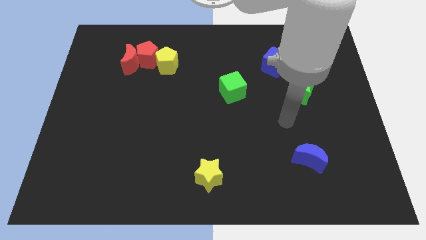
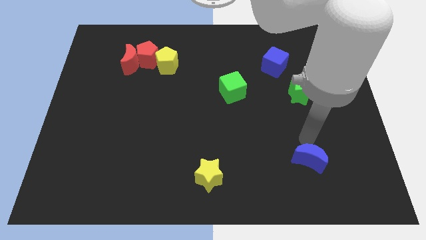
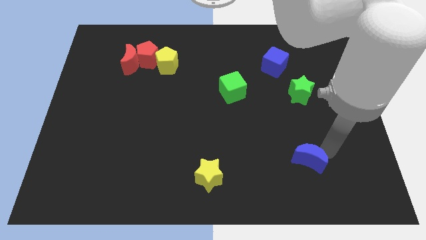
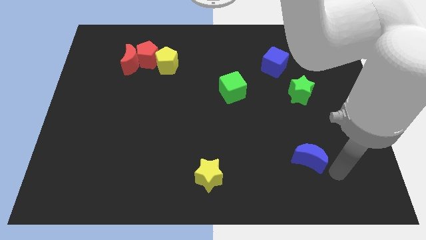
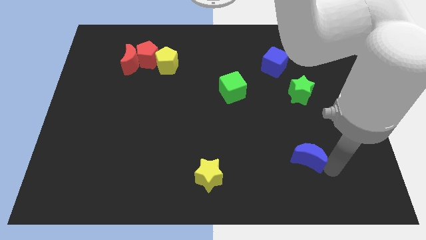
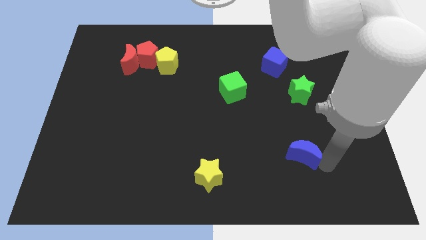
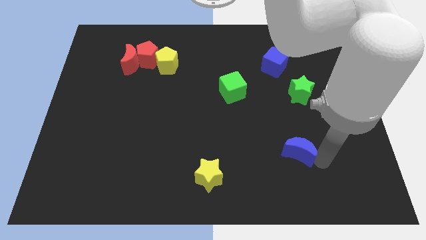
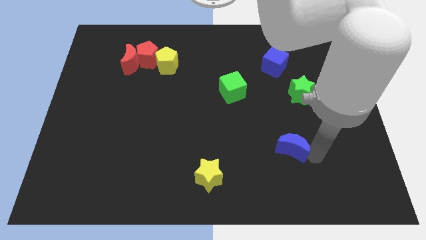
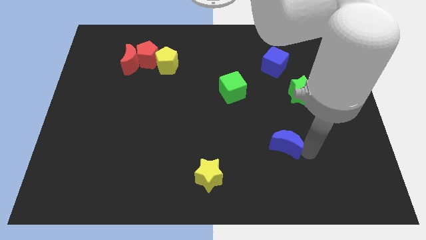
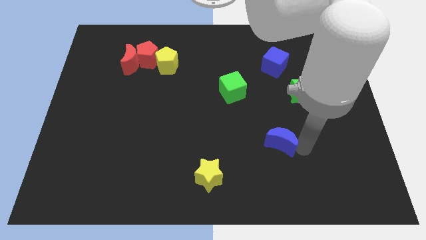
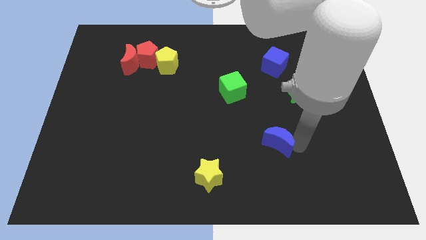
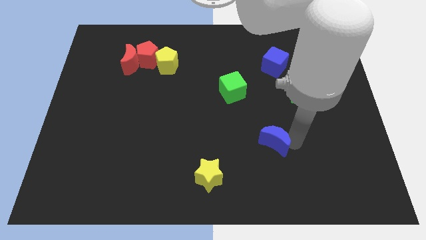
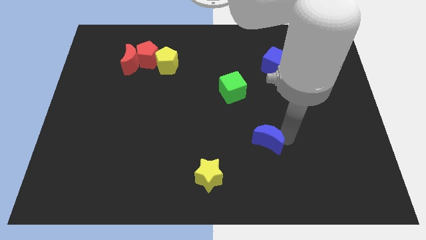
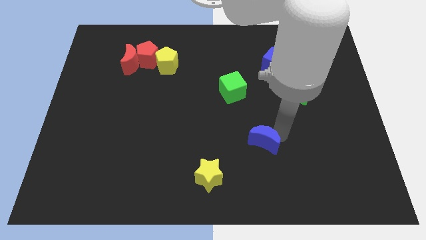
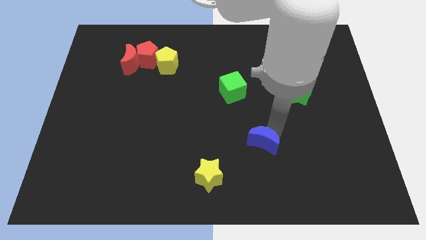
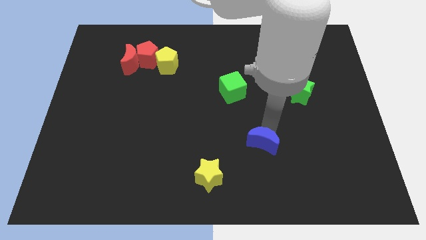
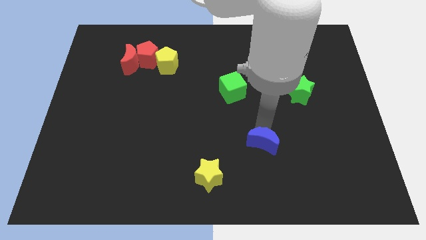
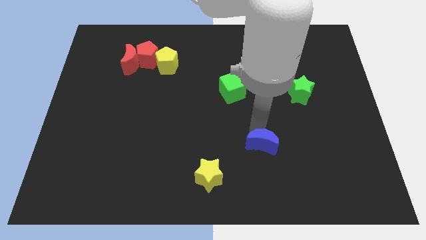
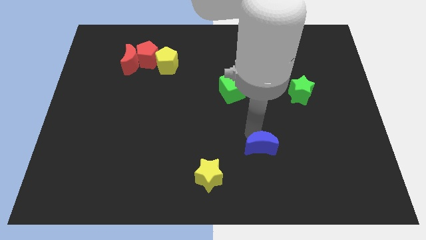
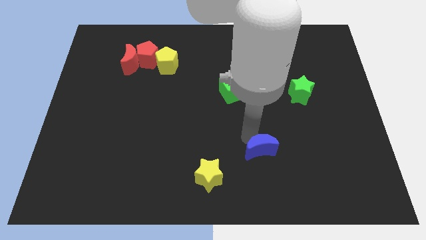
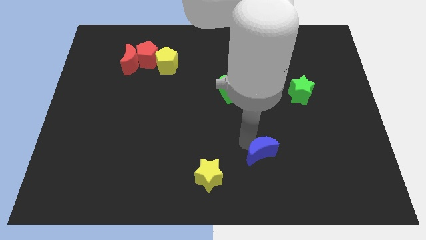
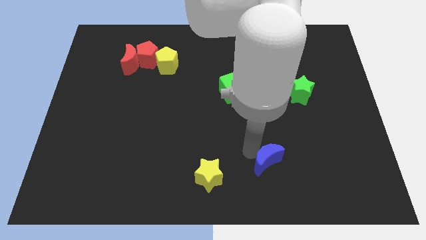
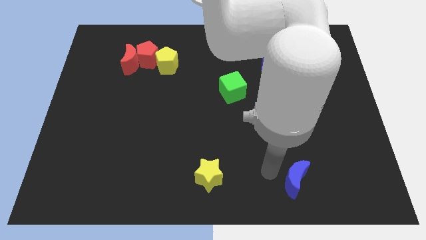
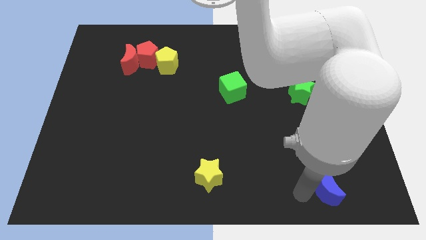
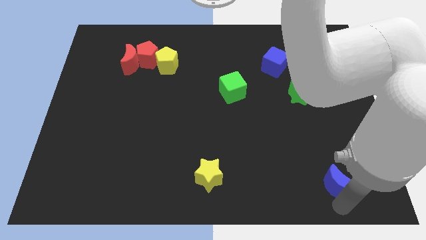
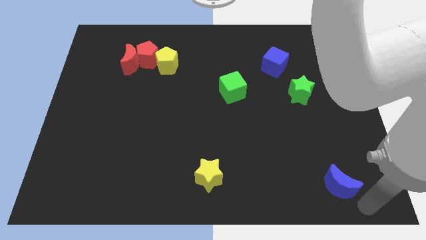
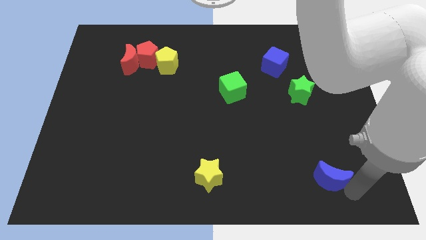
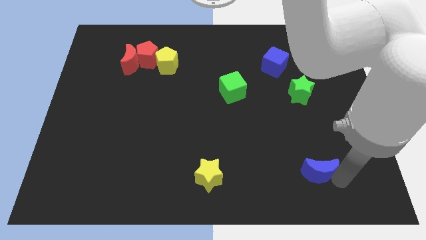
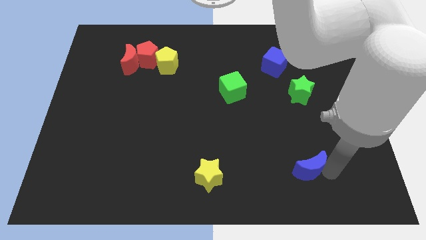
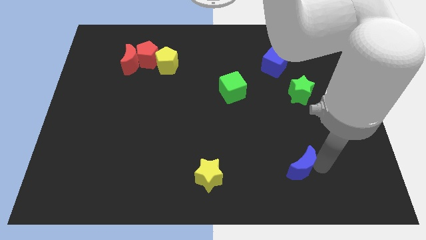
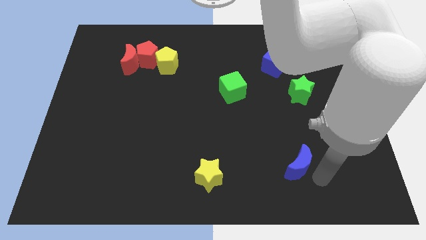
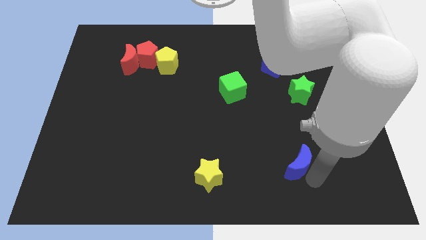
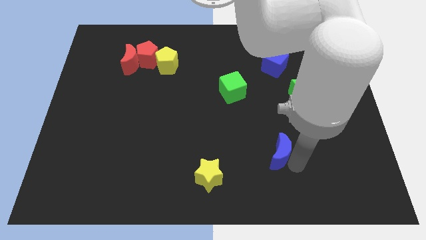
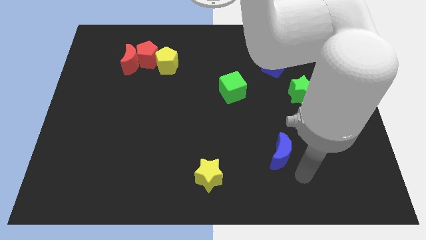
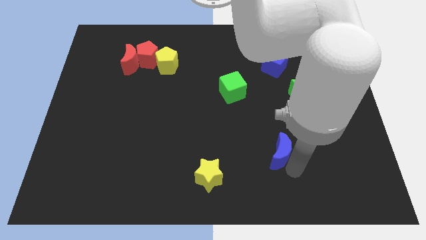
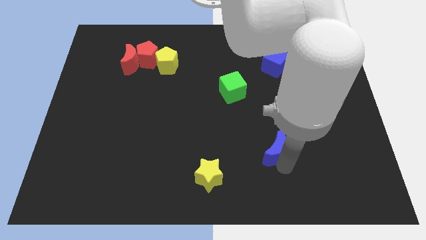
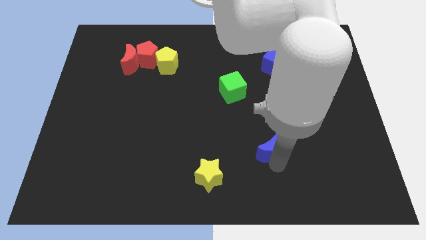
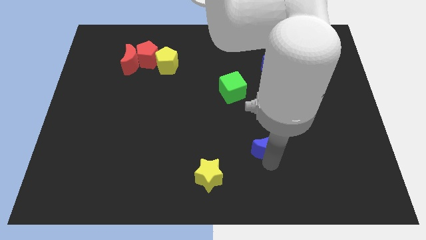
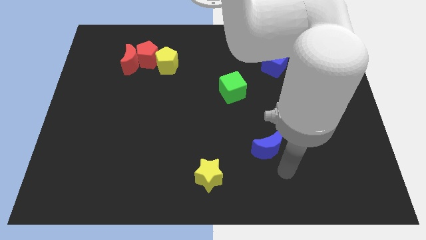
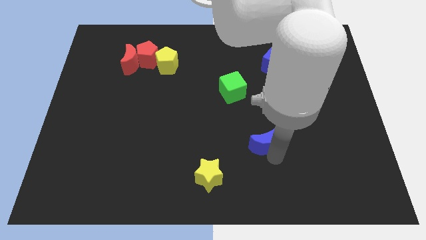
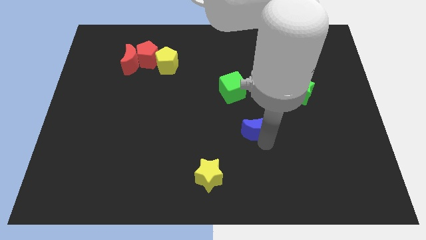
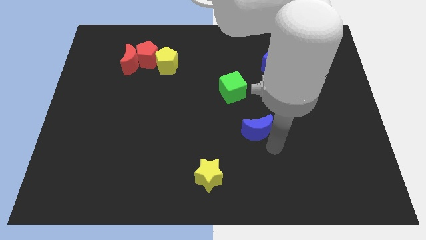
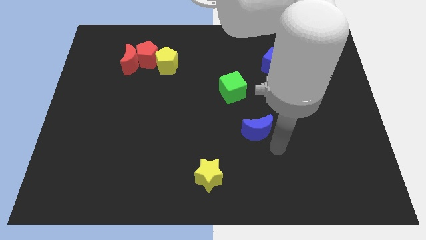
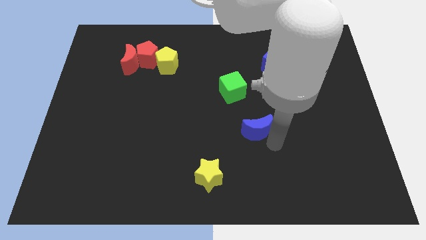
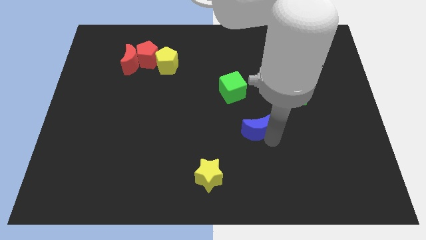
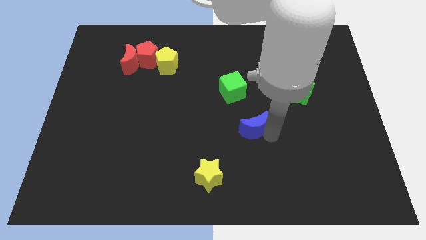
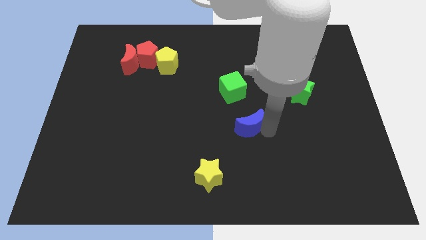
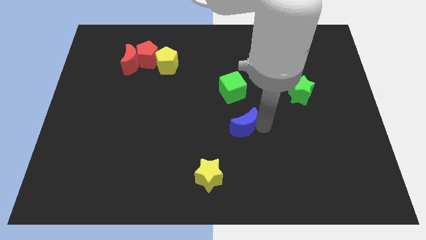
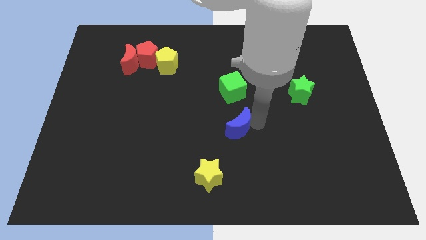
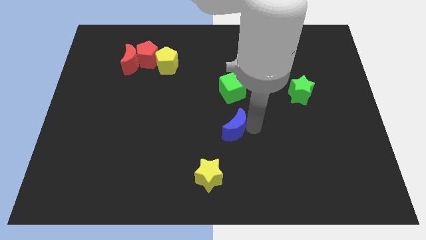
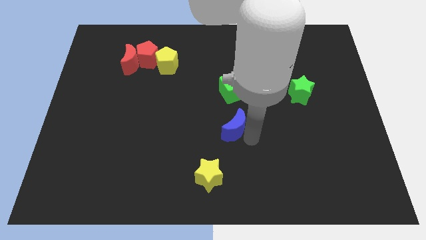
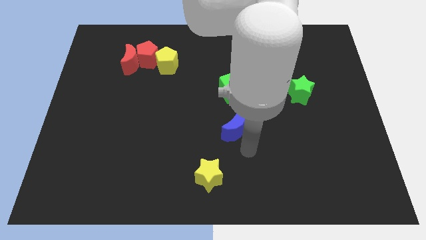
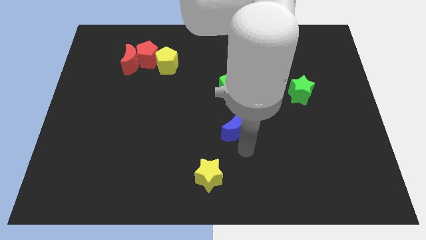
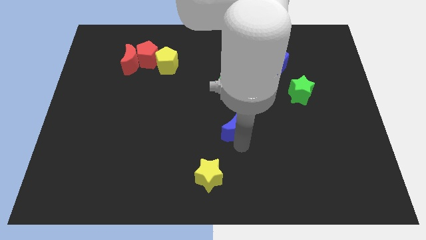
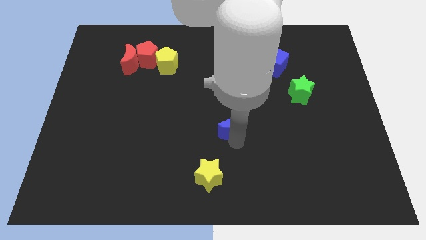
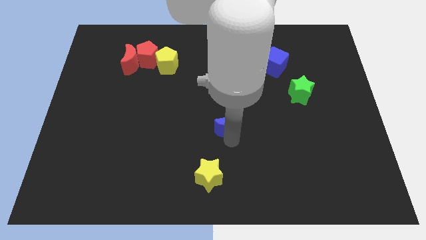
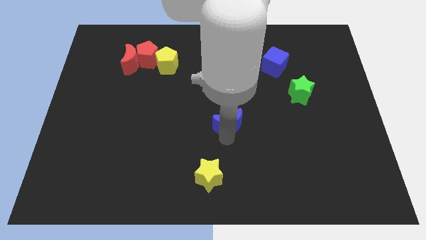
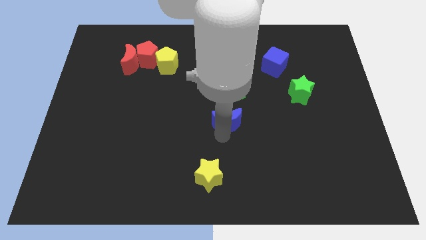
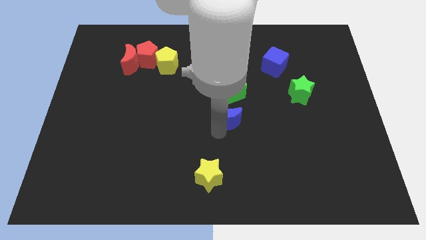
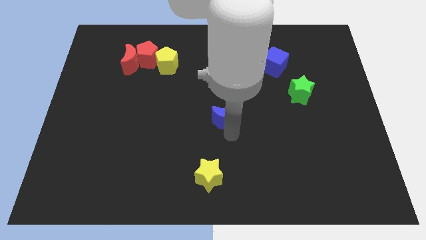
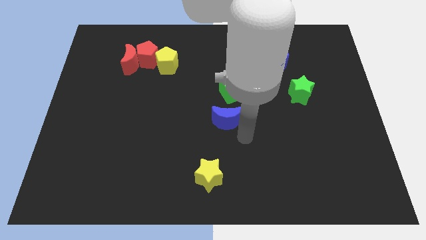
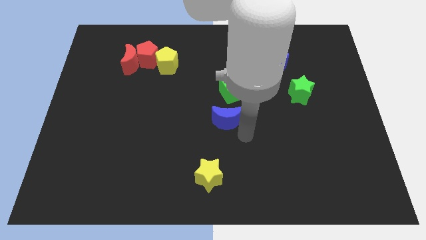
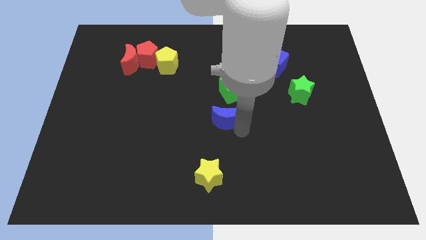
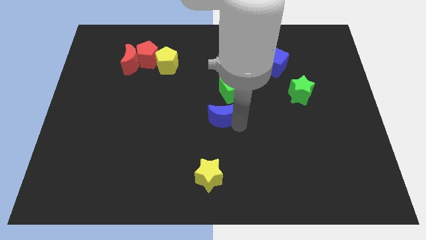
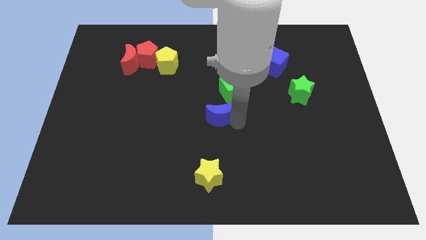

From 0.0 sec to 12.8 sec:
move the blue moon up and to the left diagonally

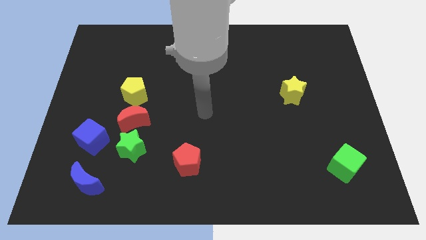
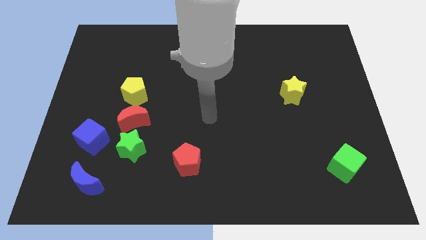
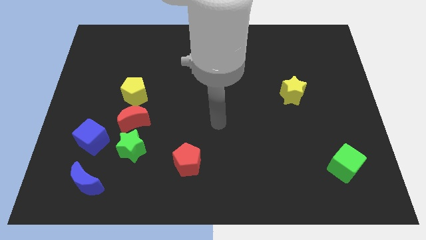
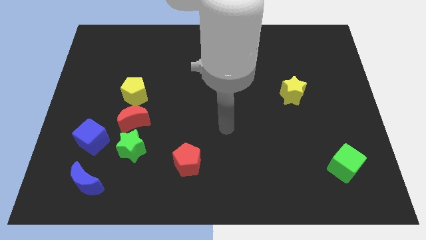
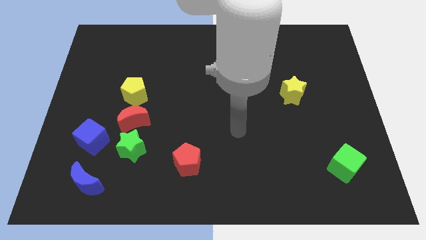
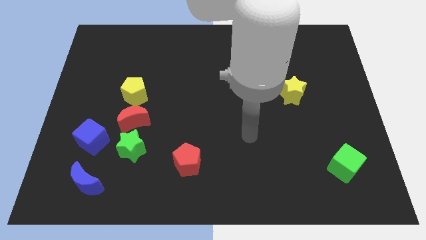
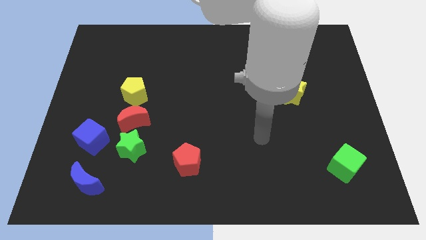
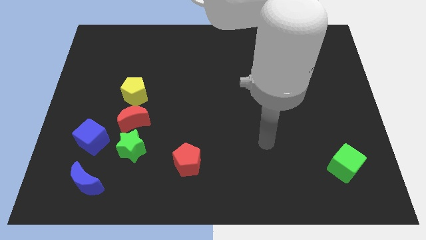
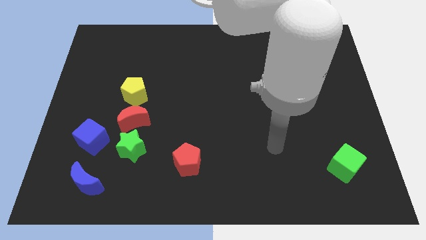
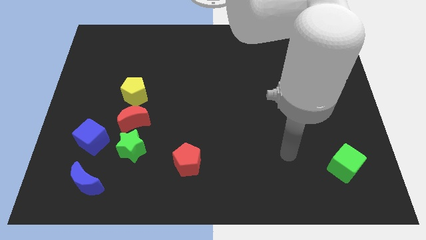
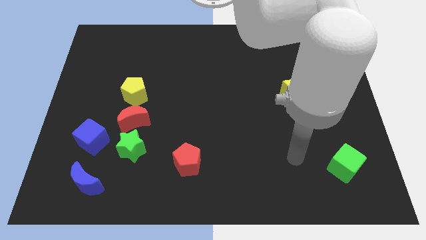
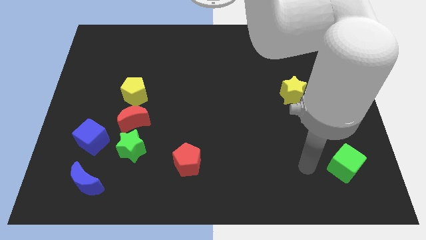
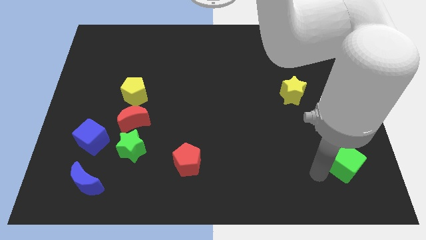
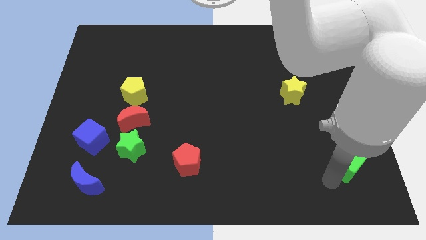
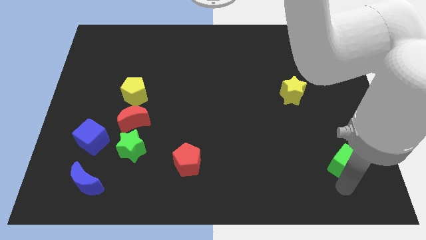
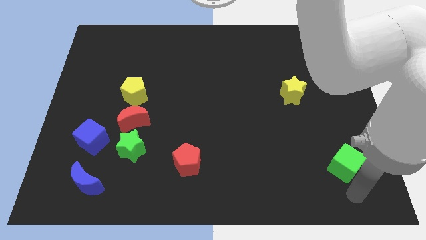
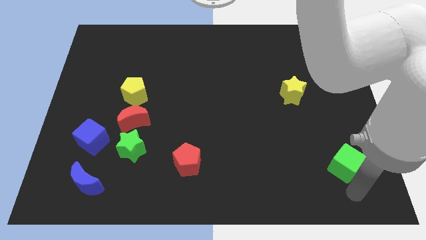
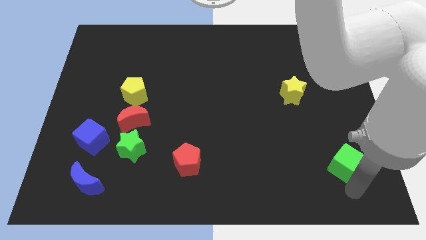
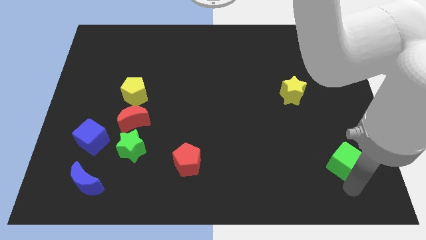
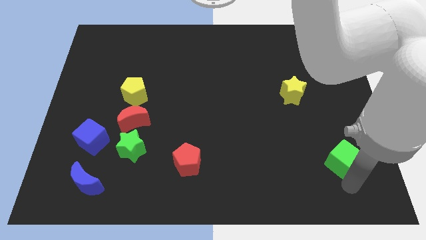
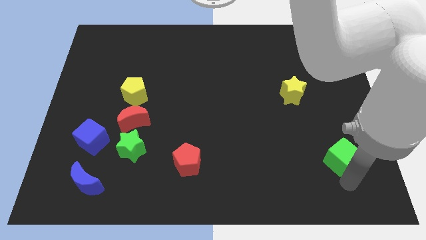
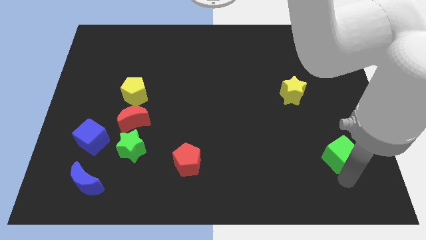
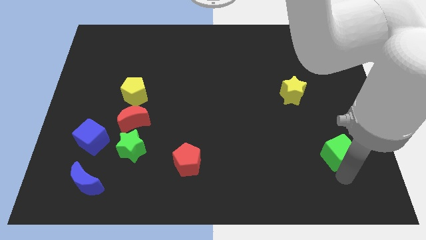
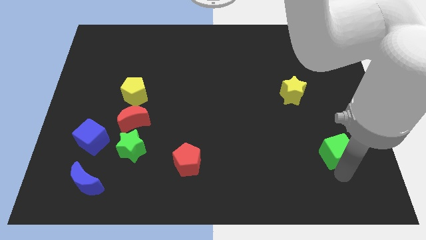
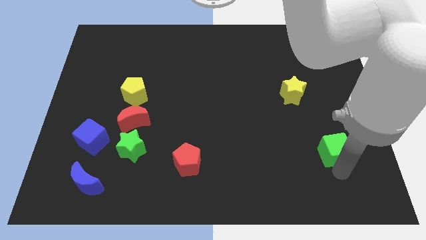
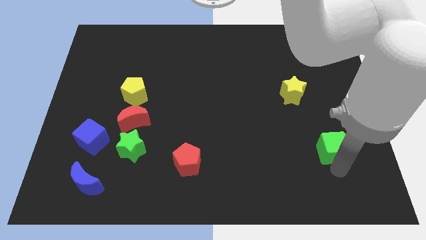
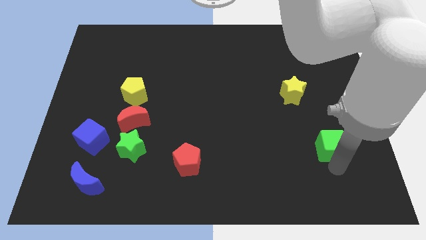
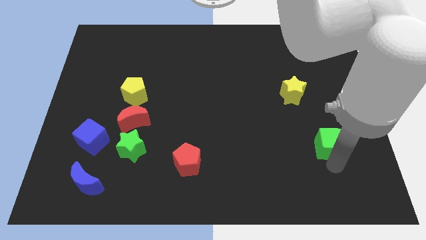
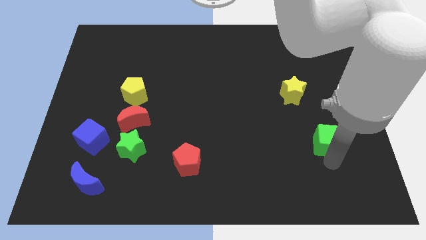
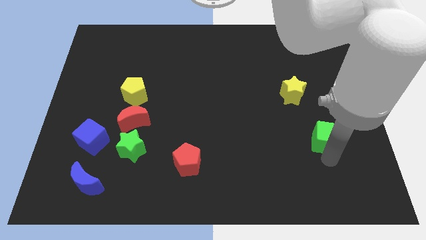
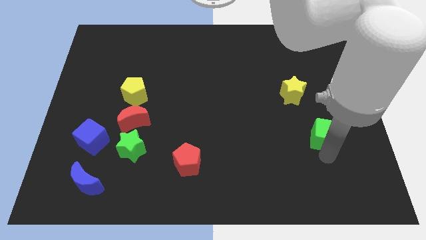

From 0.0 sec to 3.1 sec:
slightly move the green cube up
